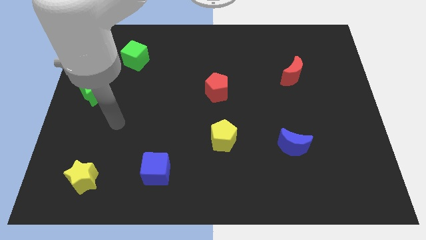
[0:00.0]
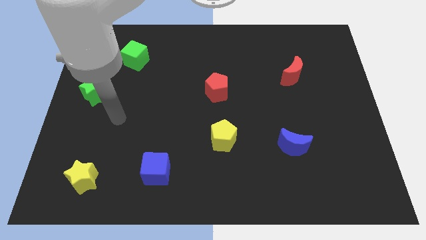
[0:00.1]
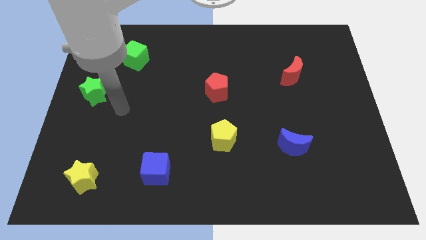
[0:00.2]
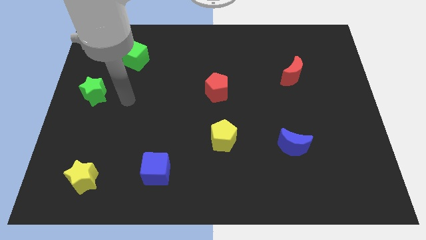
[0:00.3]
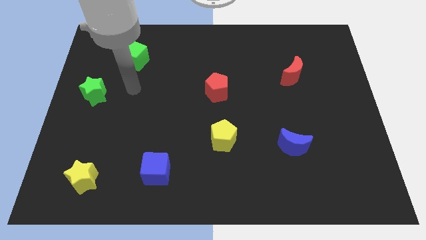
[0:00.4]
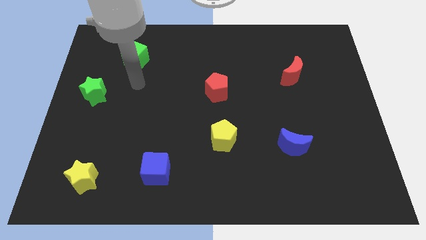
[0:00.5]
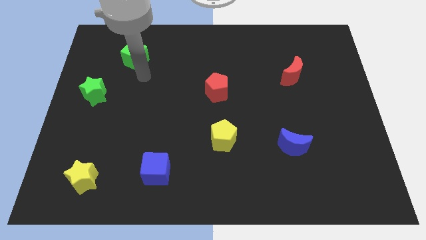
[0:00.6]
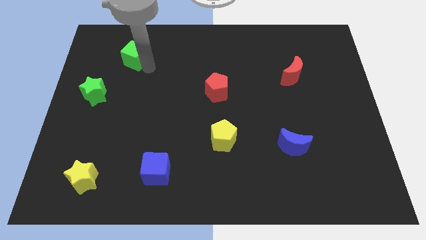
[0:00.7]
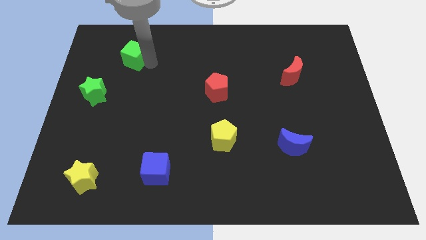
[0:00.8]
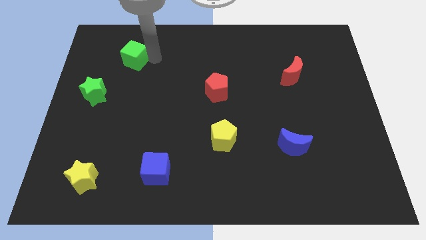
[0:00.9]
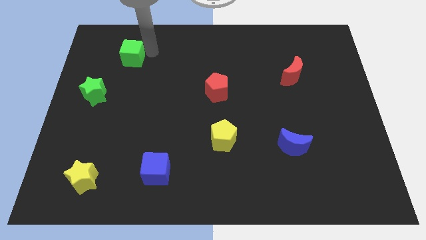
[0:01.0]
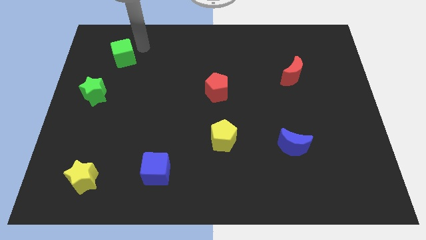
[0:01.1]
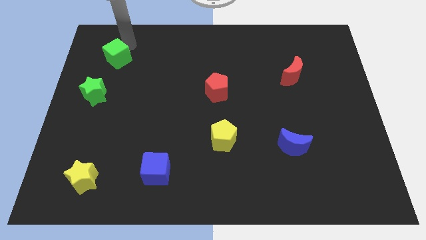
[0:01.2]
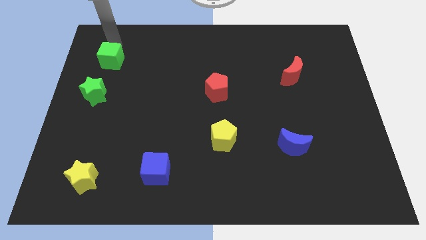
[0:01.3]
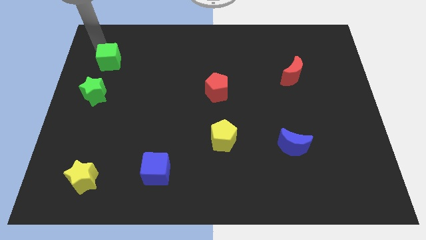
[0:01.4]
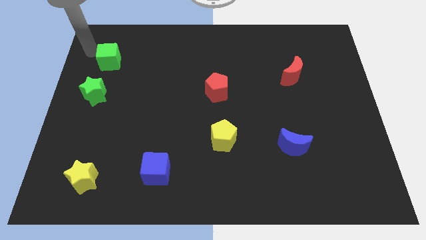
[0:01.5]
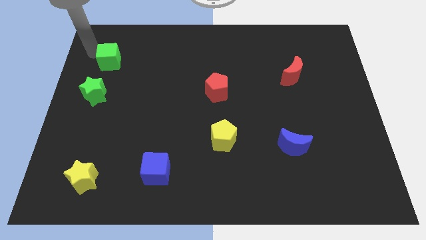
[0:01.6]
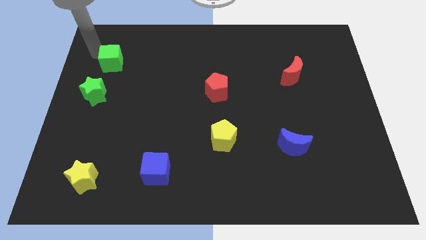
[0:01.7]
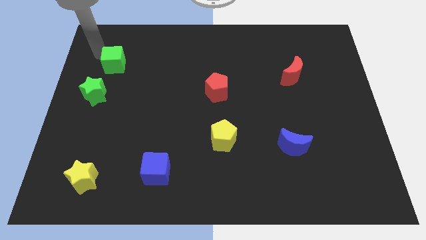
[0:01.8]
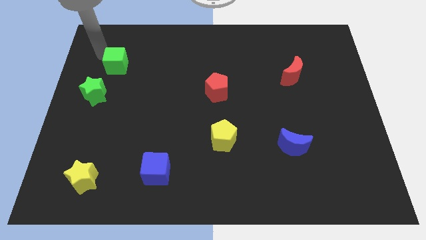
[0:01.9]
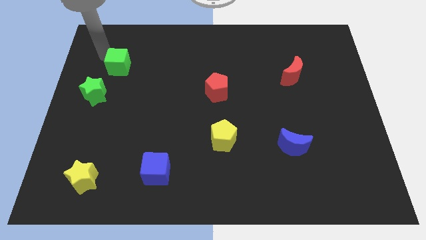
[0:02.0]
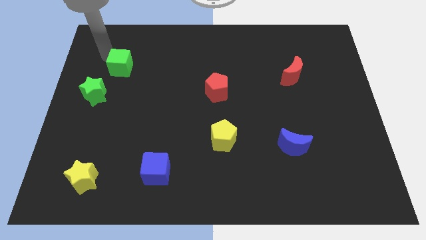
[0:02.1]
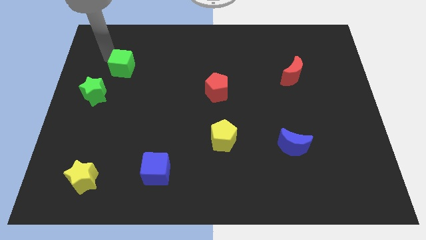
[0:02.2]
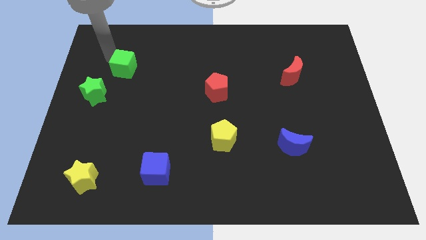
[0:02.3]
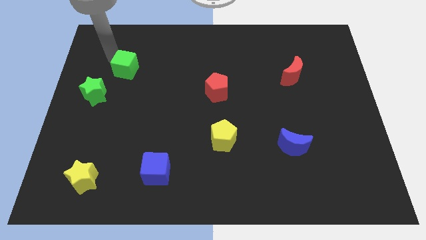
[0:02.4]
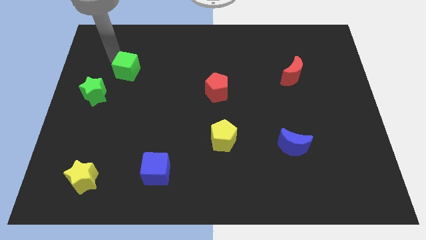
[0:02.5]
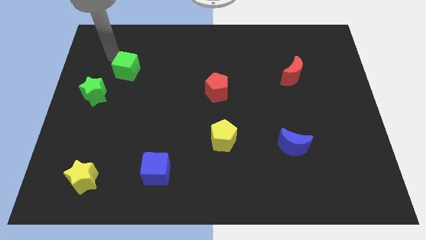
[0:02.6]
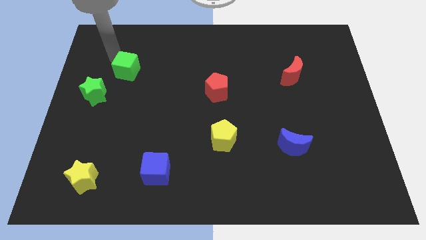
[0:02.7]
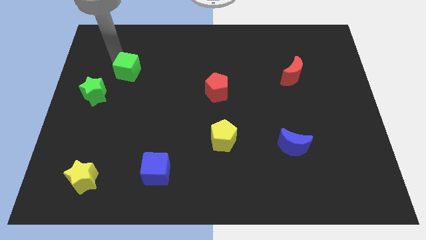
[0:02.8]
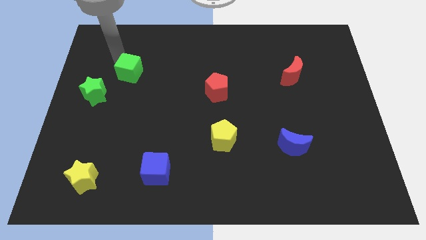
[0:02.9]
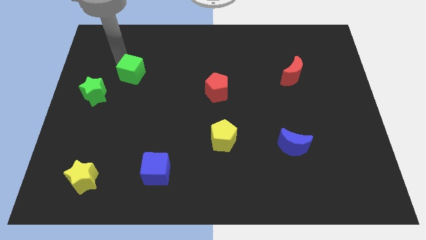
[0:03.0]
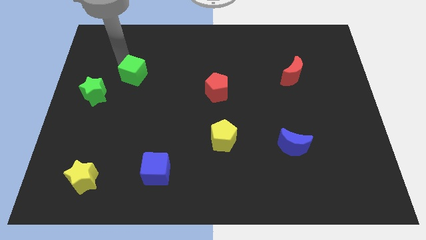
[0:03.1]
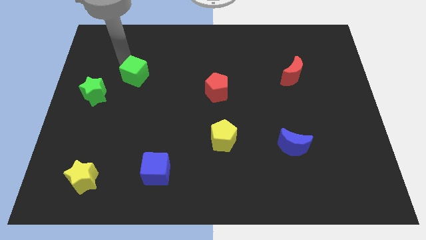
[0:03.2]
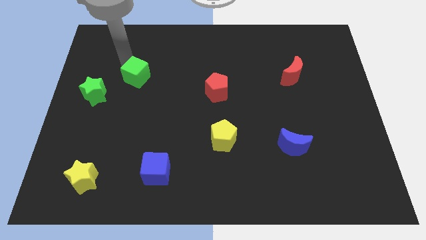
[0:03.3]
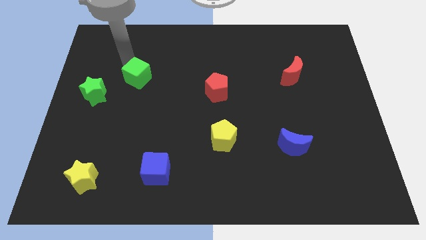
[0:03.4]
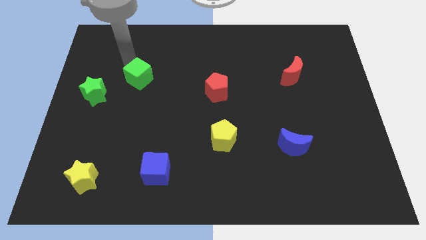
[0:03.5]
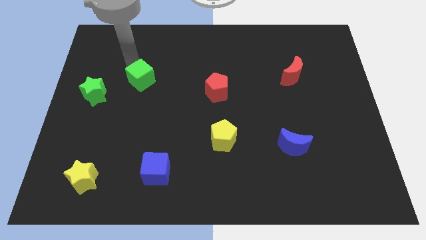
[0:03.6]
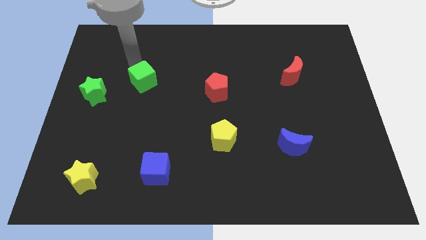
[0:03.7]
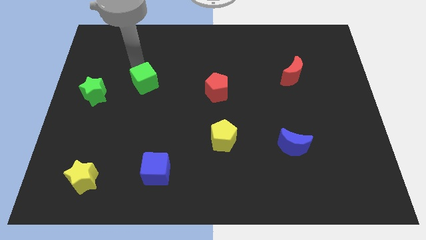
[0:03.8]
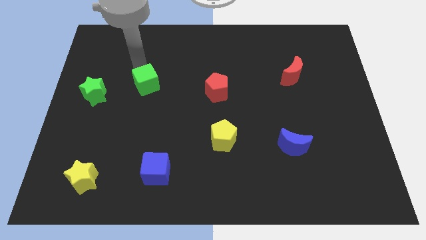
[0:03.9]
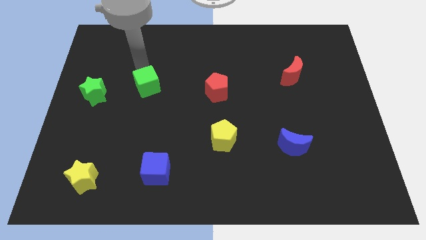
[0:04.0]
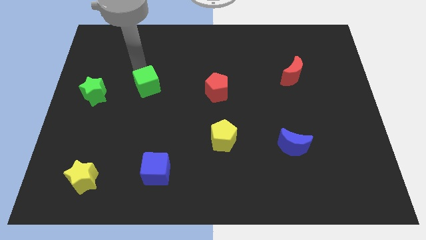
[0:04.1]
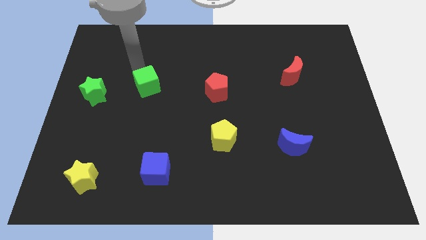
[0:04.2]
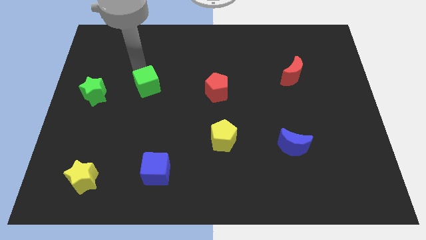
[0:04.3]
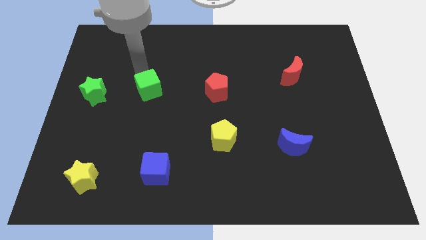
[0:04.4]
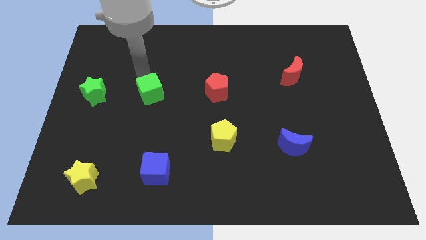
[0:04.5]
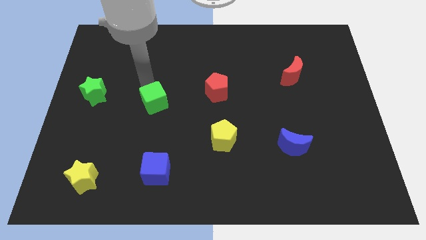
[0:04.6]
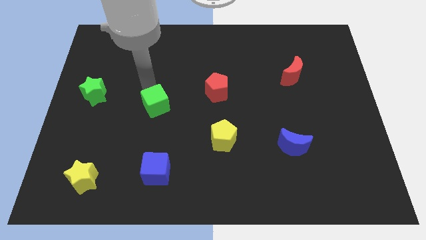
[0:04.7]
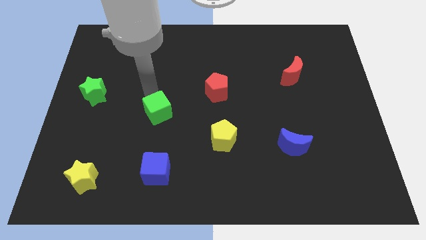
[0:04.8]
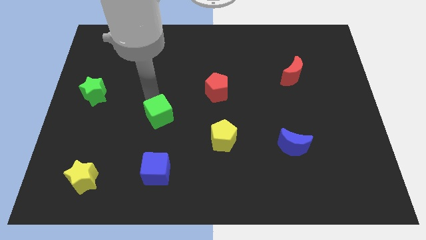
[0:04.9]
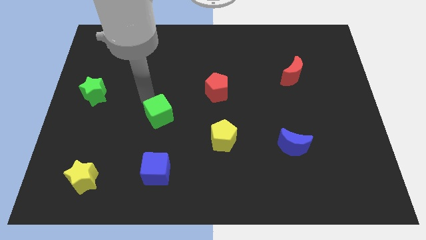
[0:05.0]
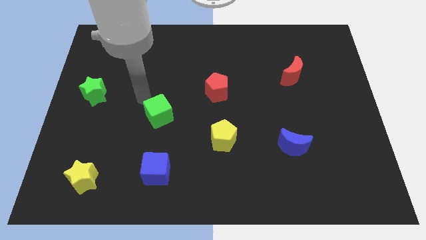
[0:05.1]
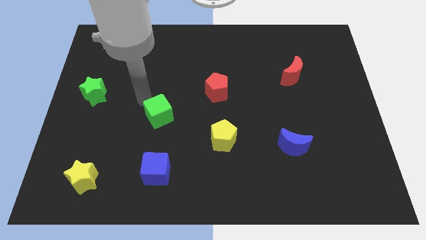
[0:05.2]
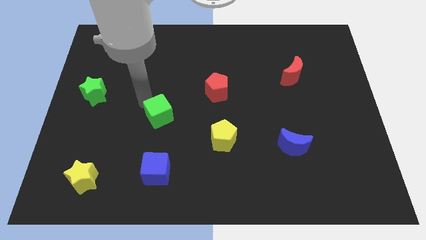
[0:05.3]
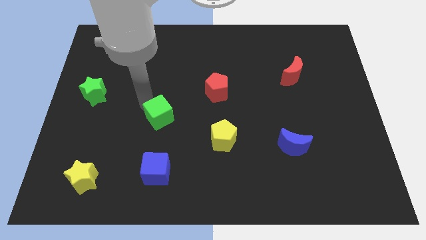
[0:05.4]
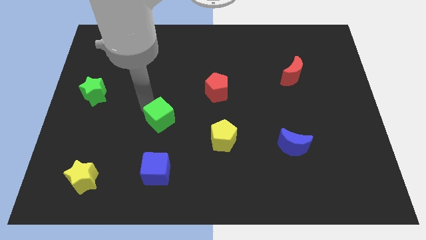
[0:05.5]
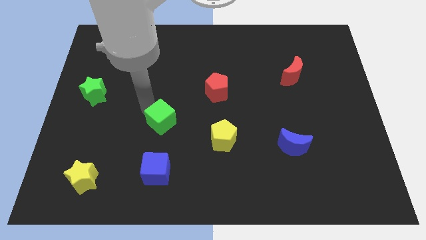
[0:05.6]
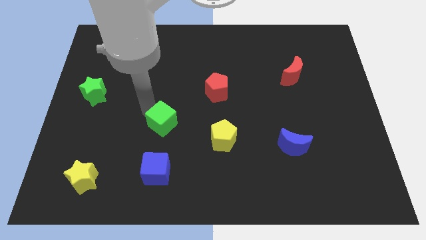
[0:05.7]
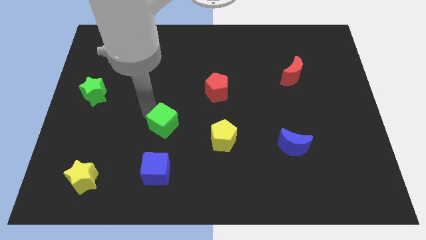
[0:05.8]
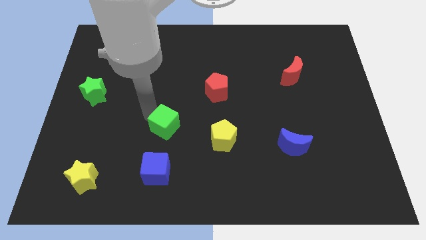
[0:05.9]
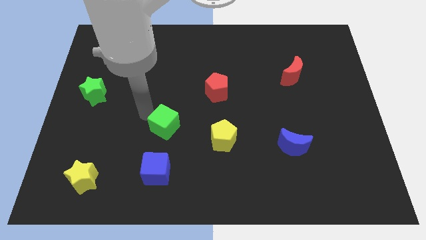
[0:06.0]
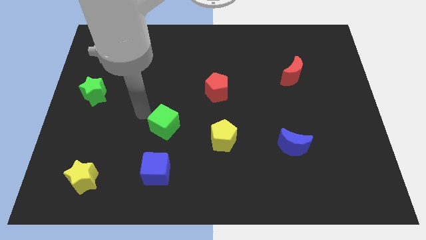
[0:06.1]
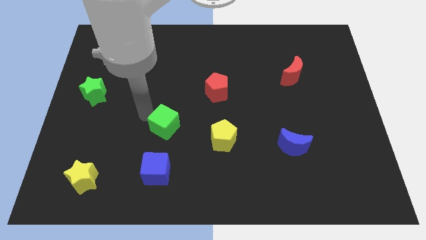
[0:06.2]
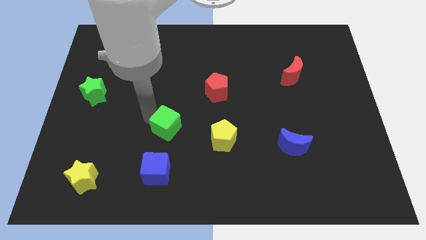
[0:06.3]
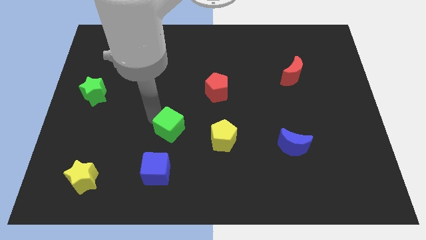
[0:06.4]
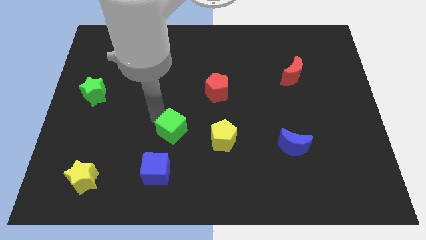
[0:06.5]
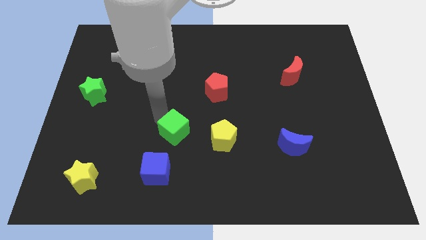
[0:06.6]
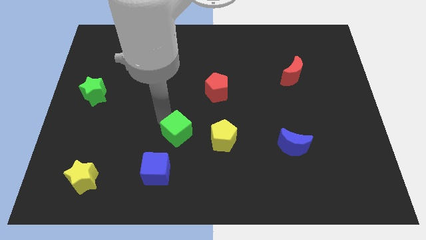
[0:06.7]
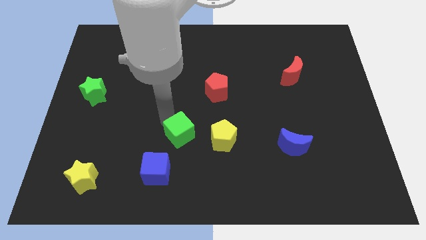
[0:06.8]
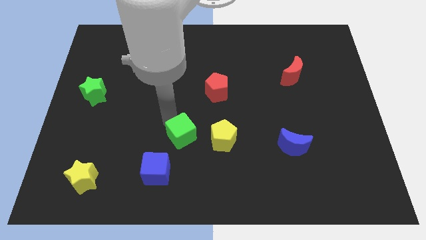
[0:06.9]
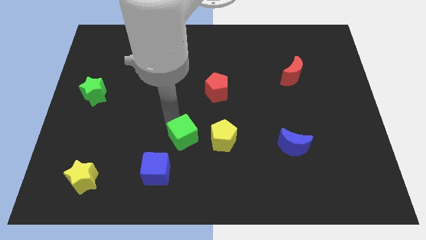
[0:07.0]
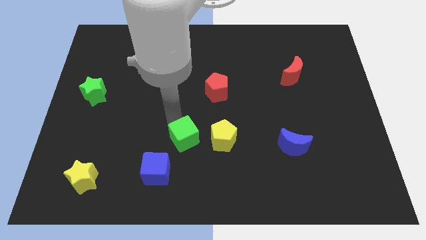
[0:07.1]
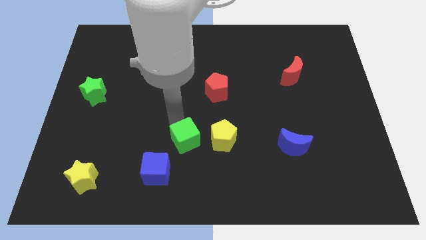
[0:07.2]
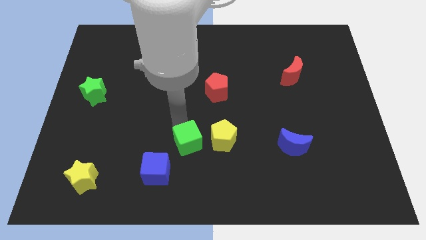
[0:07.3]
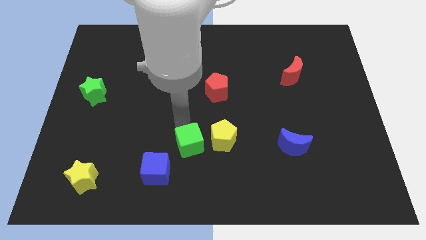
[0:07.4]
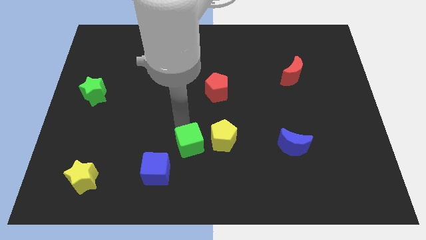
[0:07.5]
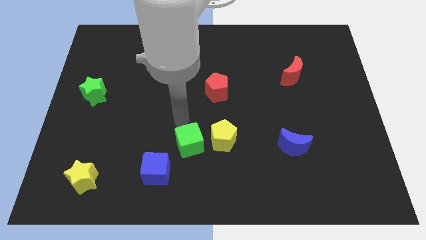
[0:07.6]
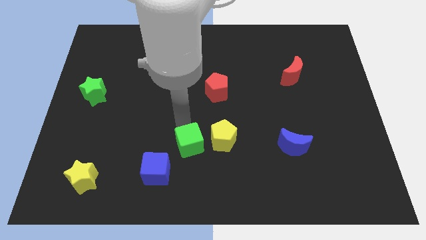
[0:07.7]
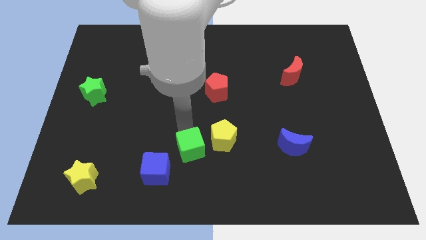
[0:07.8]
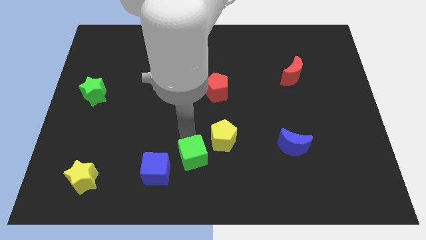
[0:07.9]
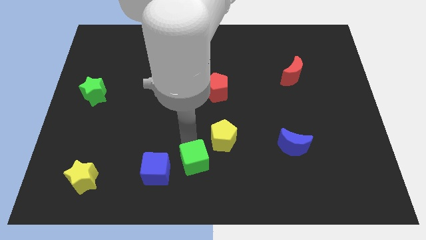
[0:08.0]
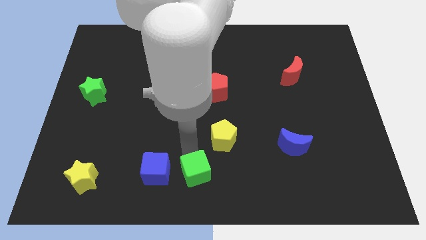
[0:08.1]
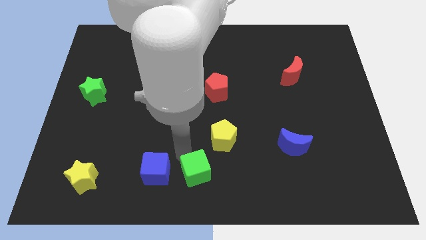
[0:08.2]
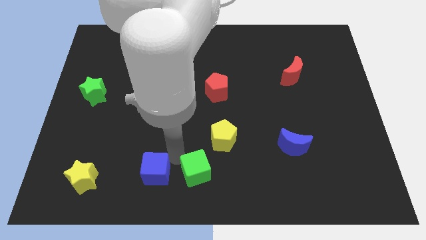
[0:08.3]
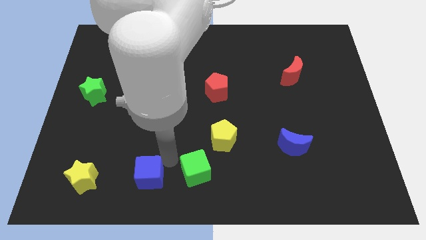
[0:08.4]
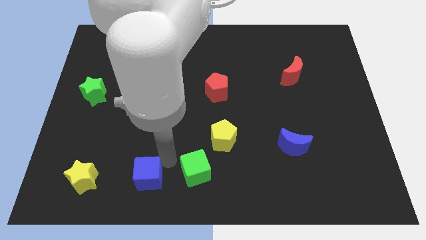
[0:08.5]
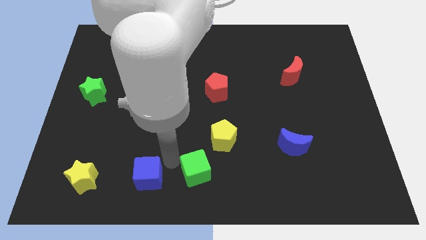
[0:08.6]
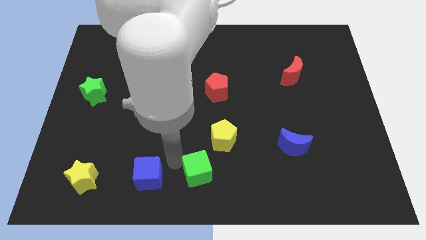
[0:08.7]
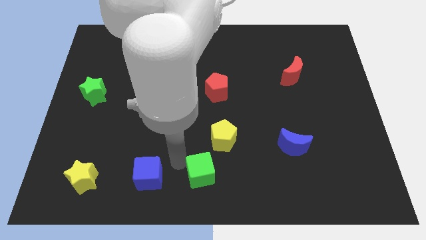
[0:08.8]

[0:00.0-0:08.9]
slide the green cube to the bottom side of the yellow pentagon
